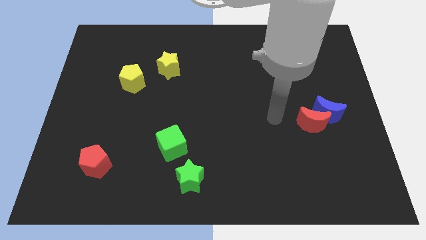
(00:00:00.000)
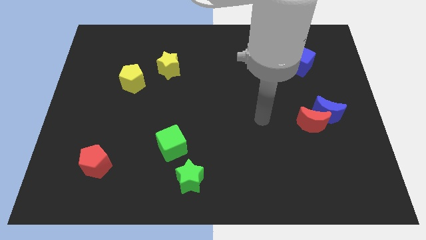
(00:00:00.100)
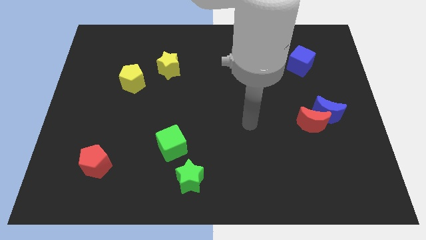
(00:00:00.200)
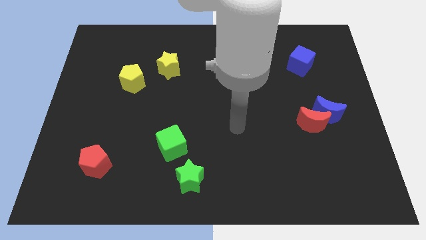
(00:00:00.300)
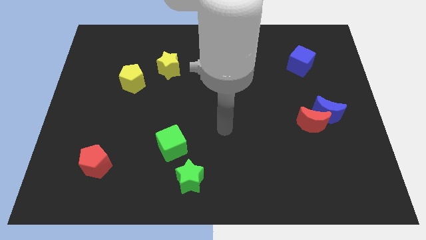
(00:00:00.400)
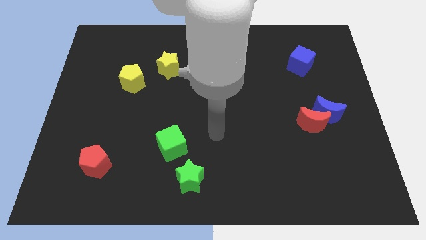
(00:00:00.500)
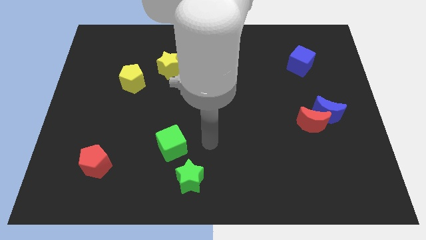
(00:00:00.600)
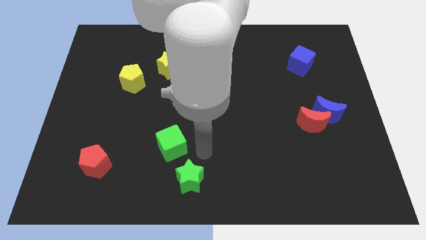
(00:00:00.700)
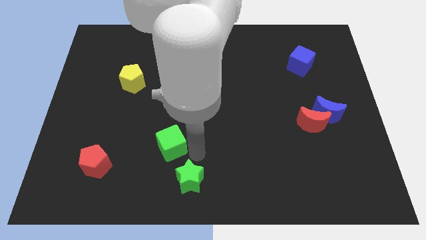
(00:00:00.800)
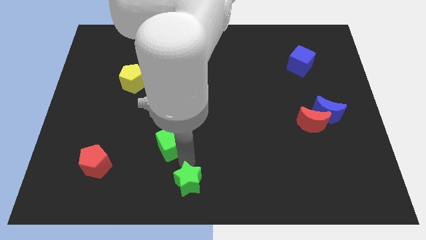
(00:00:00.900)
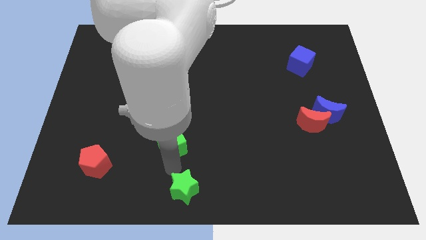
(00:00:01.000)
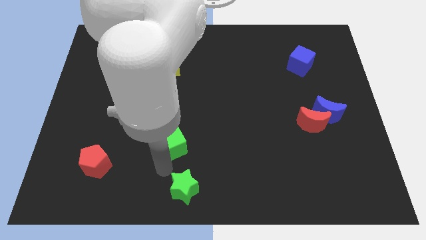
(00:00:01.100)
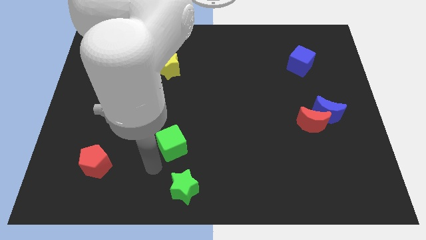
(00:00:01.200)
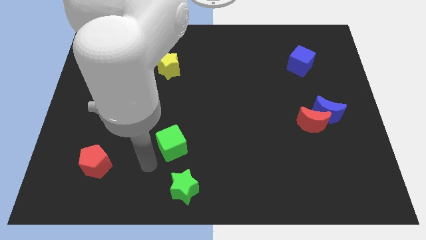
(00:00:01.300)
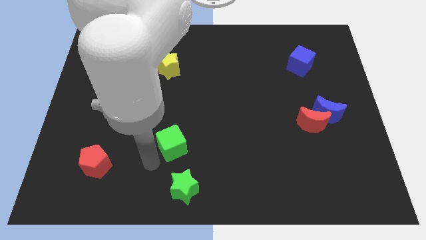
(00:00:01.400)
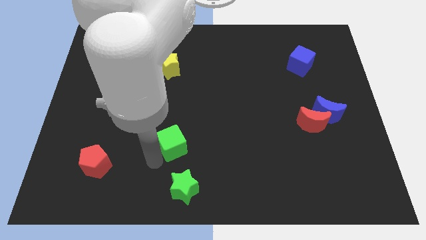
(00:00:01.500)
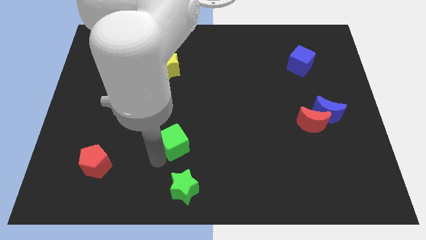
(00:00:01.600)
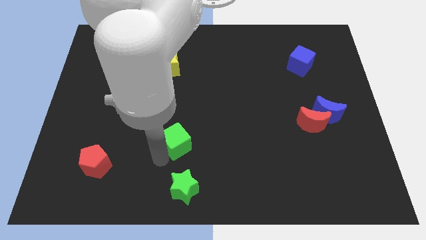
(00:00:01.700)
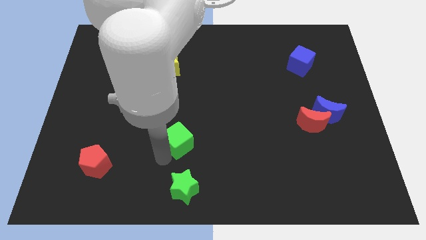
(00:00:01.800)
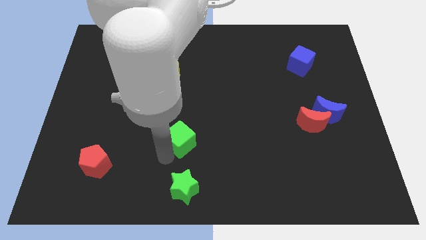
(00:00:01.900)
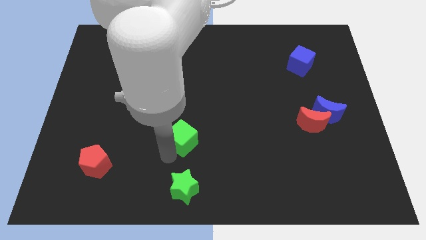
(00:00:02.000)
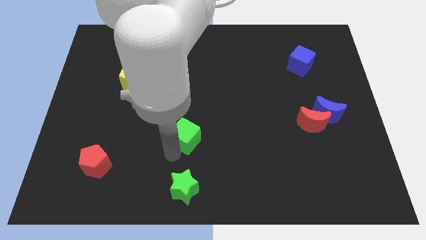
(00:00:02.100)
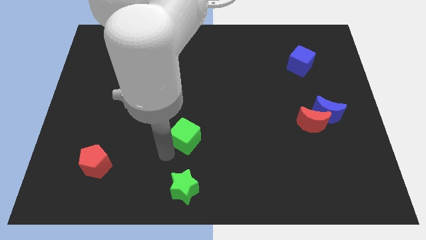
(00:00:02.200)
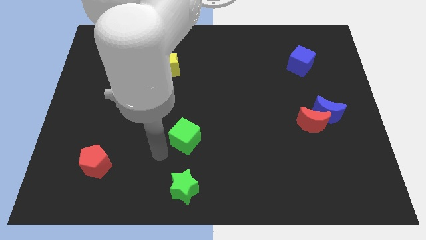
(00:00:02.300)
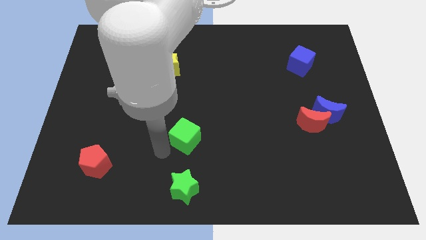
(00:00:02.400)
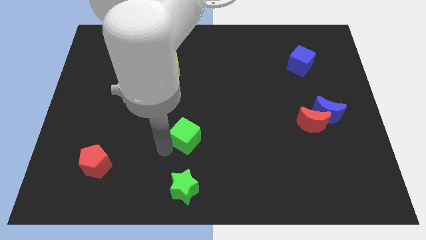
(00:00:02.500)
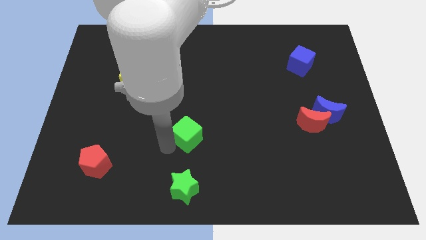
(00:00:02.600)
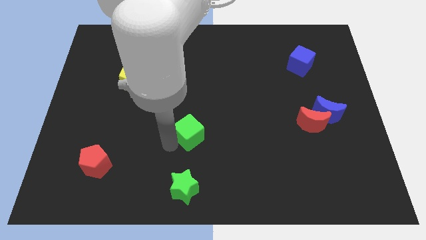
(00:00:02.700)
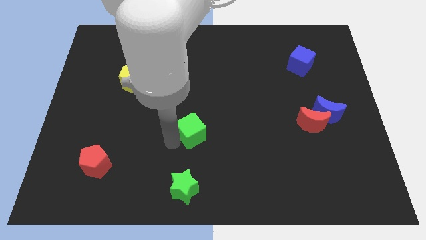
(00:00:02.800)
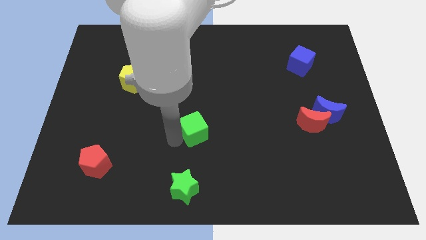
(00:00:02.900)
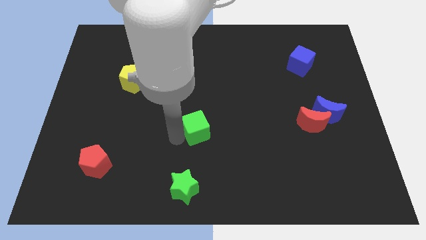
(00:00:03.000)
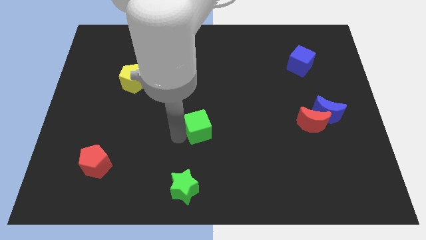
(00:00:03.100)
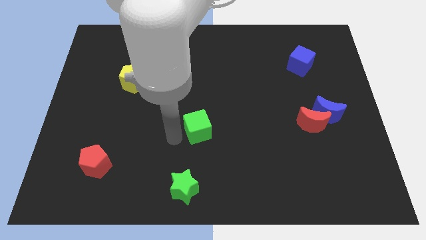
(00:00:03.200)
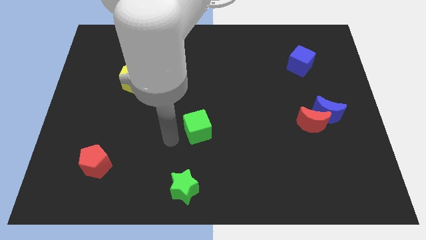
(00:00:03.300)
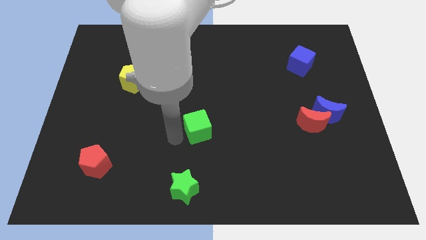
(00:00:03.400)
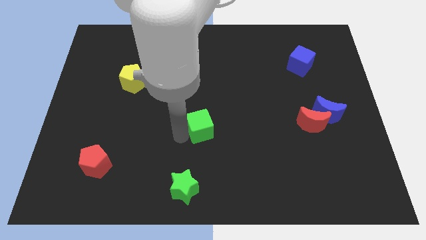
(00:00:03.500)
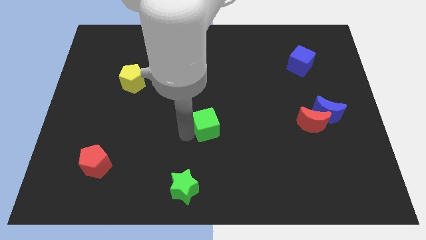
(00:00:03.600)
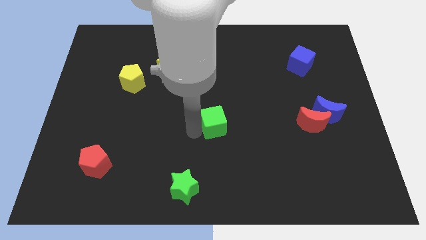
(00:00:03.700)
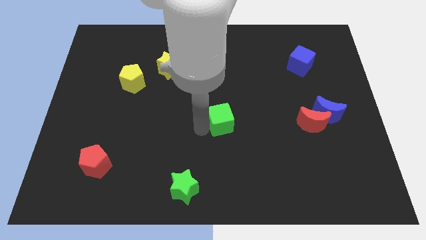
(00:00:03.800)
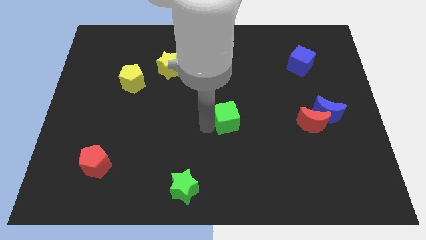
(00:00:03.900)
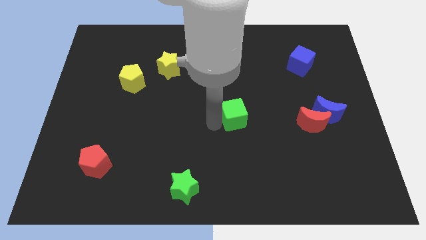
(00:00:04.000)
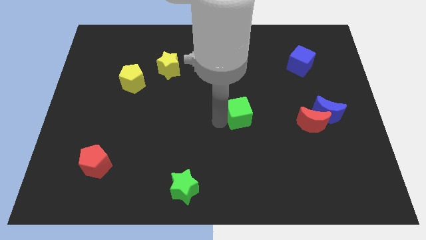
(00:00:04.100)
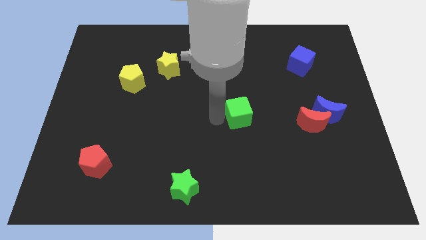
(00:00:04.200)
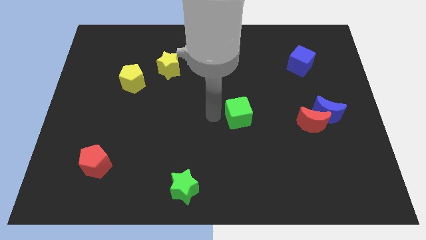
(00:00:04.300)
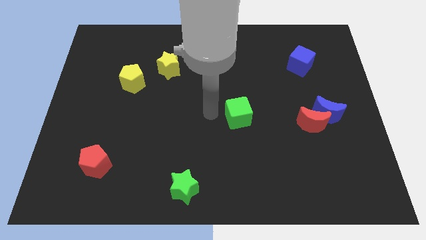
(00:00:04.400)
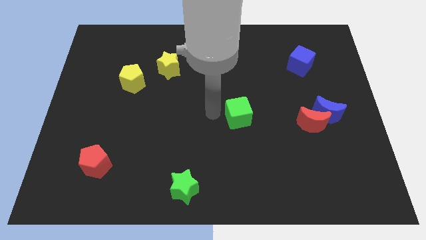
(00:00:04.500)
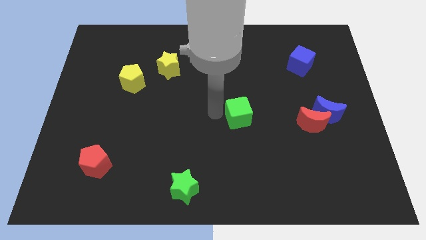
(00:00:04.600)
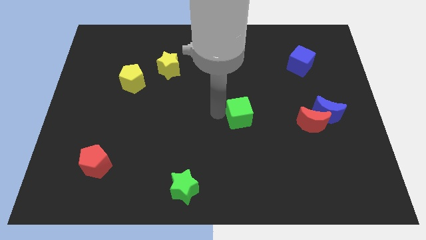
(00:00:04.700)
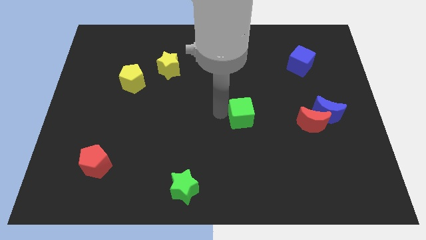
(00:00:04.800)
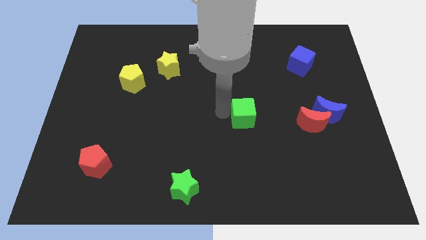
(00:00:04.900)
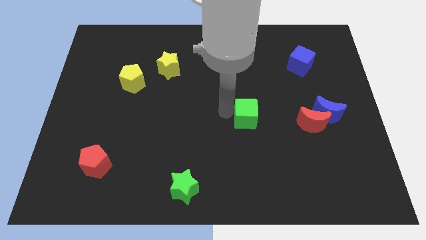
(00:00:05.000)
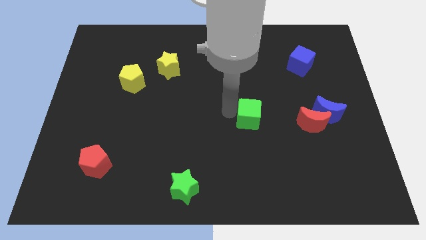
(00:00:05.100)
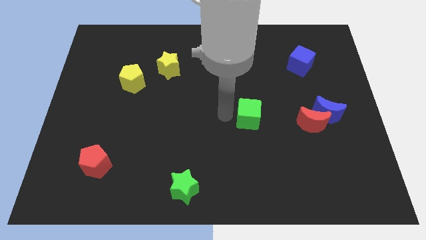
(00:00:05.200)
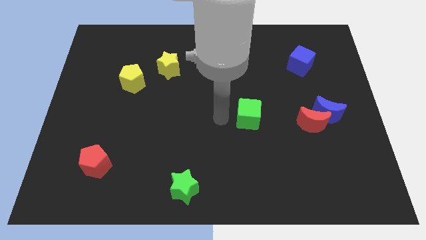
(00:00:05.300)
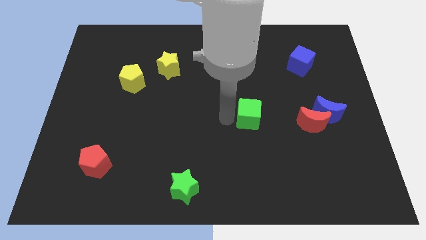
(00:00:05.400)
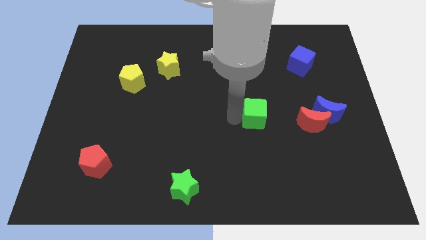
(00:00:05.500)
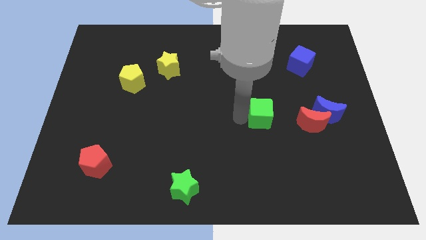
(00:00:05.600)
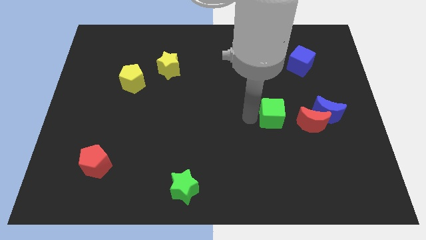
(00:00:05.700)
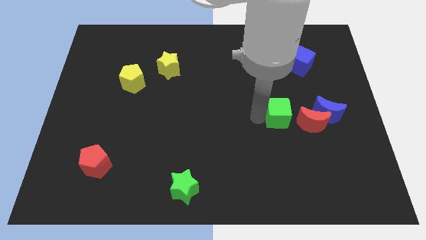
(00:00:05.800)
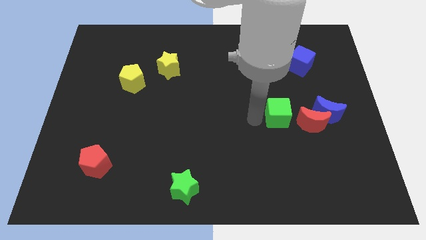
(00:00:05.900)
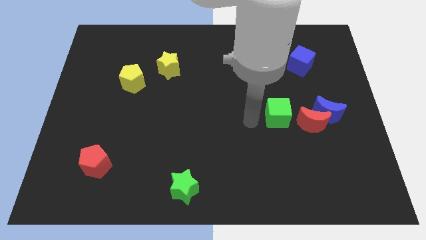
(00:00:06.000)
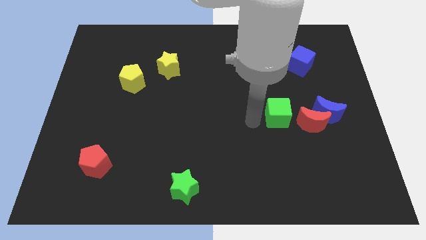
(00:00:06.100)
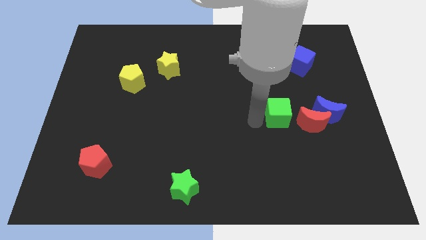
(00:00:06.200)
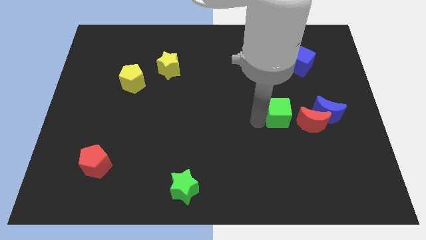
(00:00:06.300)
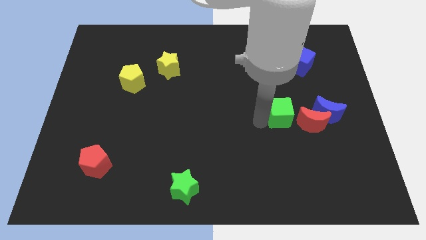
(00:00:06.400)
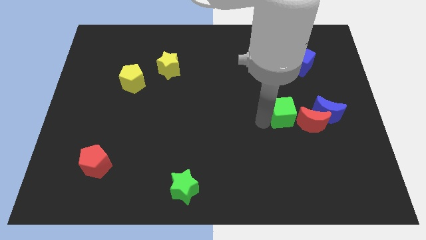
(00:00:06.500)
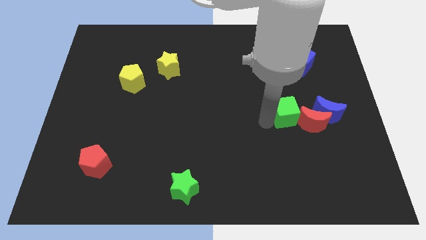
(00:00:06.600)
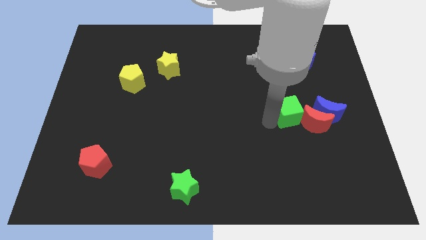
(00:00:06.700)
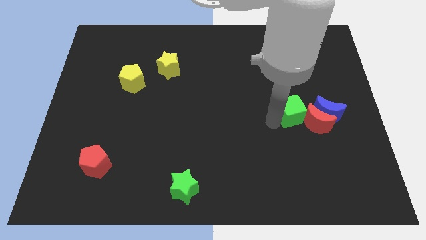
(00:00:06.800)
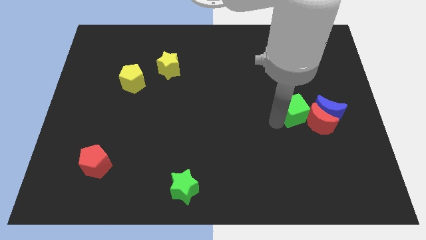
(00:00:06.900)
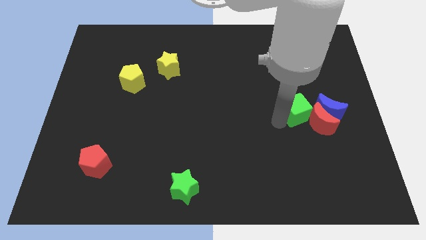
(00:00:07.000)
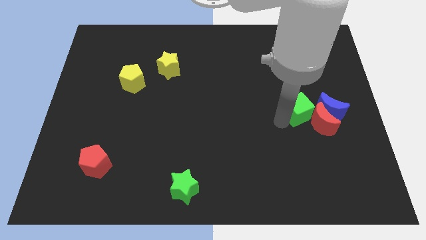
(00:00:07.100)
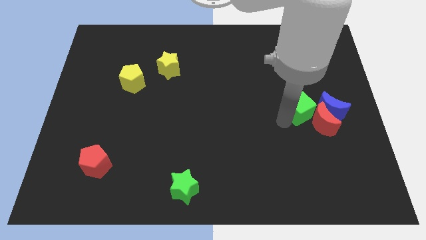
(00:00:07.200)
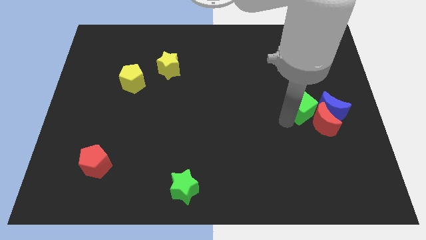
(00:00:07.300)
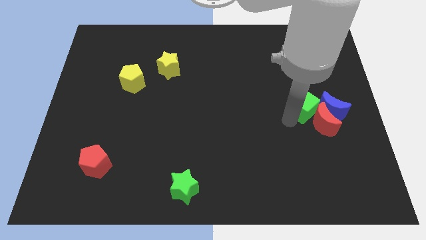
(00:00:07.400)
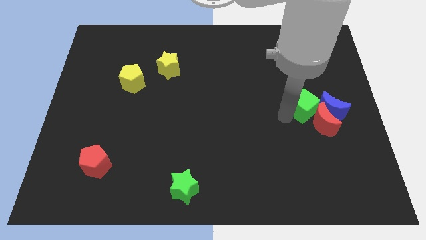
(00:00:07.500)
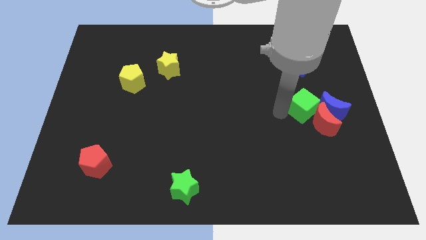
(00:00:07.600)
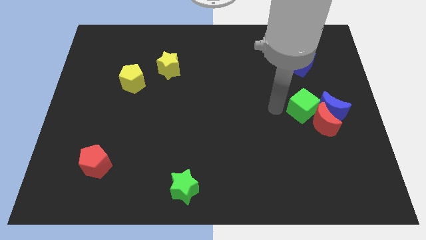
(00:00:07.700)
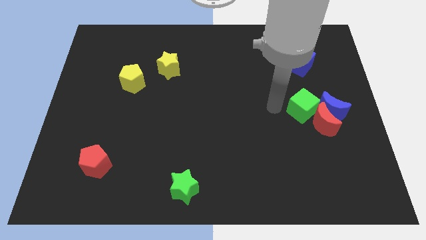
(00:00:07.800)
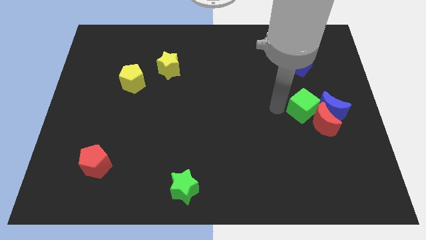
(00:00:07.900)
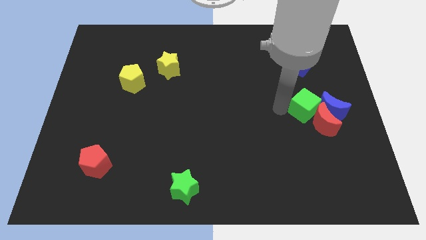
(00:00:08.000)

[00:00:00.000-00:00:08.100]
move the green cube next to the blue moon
